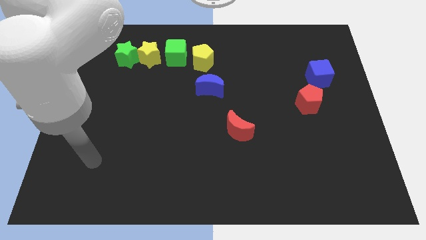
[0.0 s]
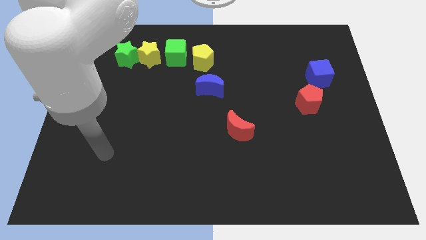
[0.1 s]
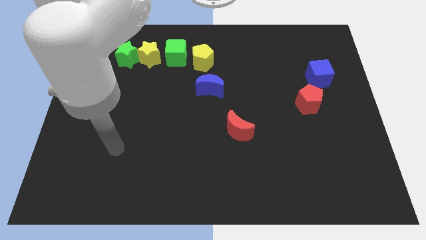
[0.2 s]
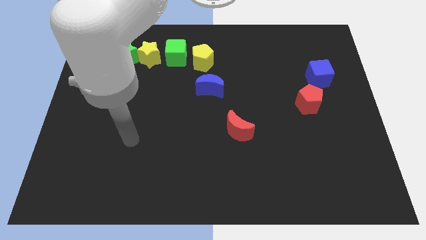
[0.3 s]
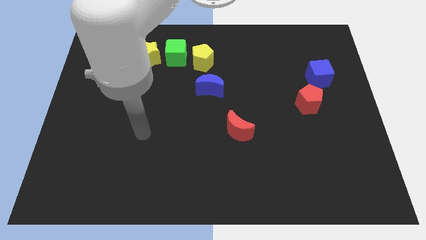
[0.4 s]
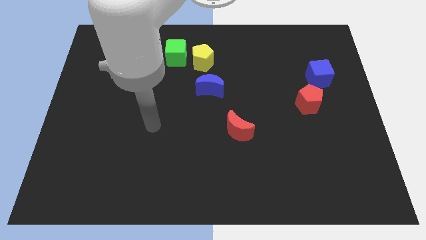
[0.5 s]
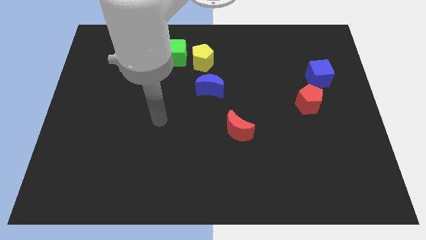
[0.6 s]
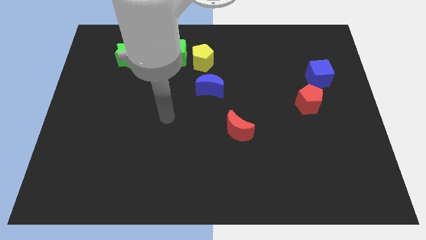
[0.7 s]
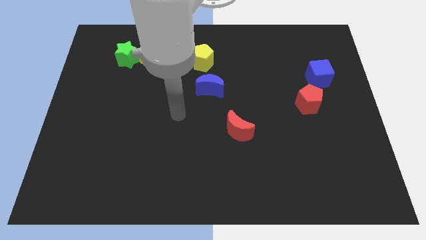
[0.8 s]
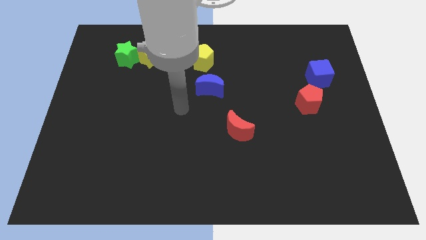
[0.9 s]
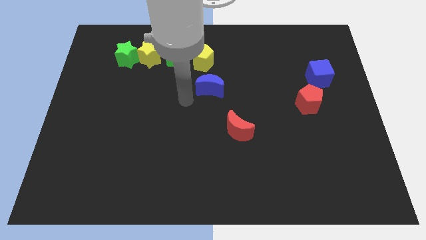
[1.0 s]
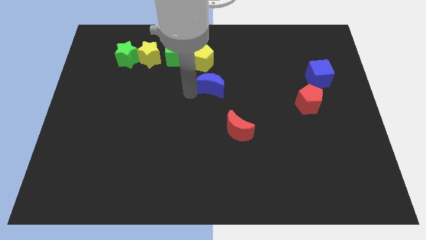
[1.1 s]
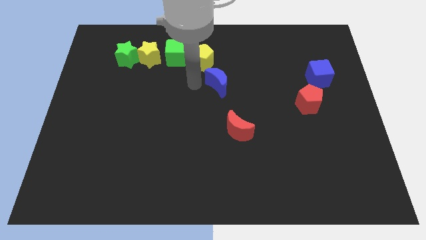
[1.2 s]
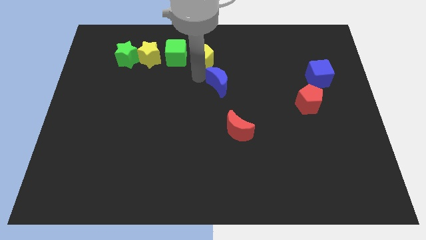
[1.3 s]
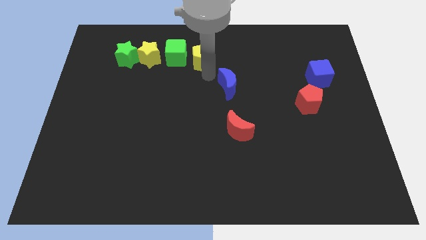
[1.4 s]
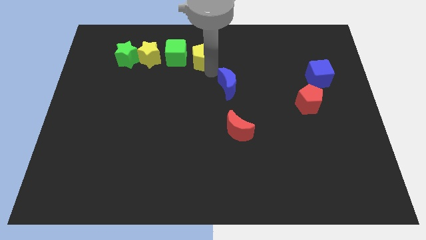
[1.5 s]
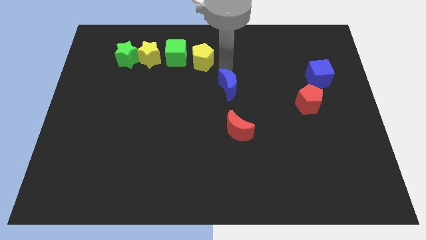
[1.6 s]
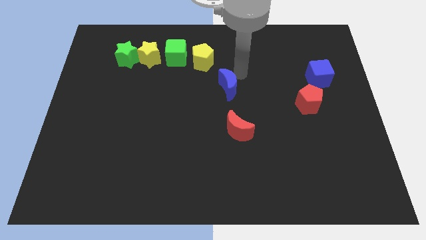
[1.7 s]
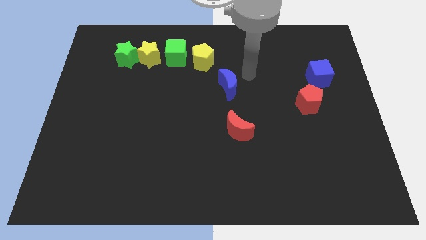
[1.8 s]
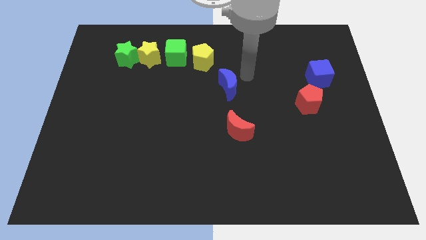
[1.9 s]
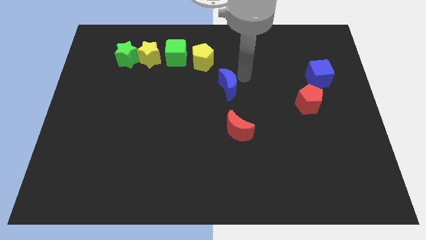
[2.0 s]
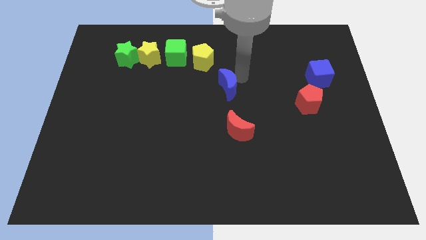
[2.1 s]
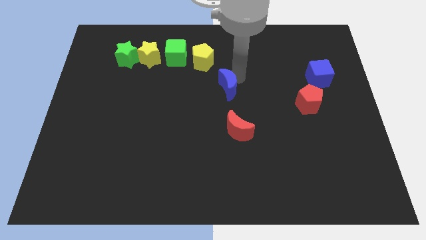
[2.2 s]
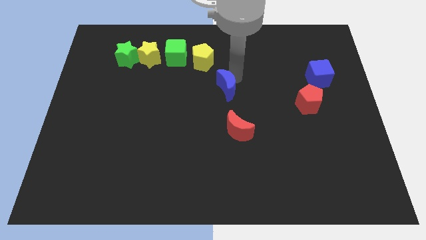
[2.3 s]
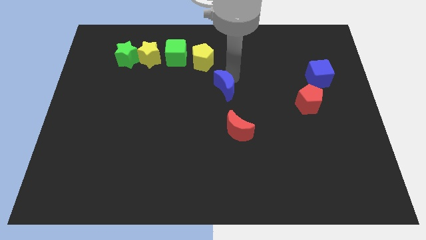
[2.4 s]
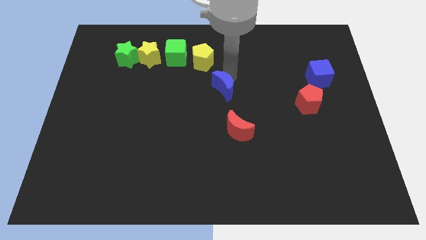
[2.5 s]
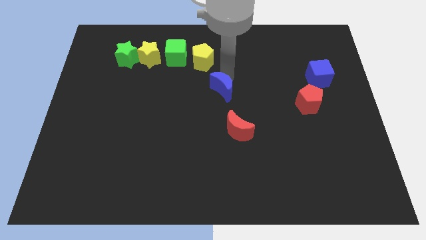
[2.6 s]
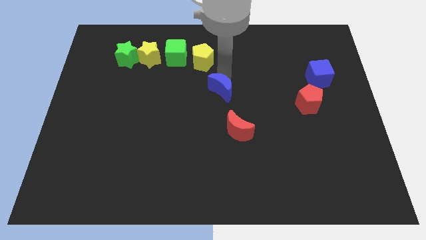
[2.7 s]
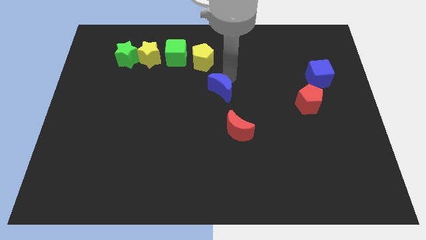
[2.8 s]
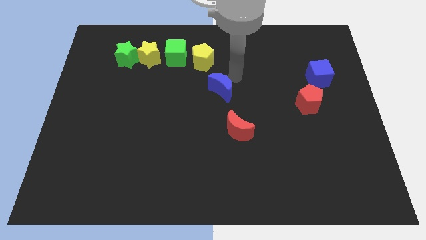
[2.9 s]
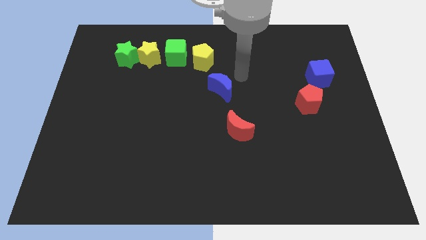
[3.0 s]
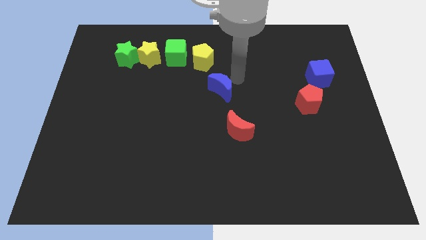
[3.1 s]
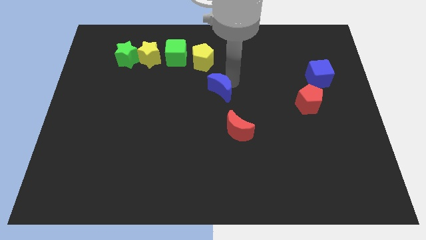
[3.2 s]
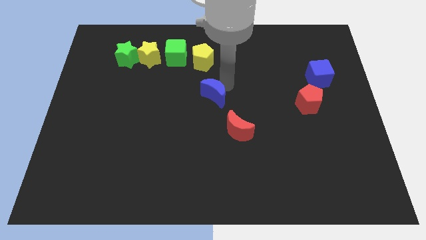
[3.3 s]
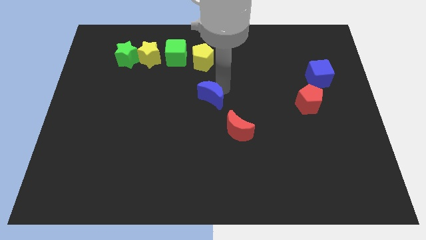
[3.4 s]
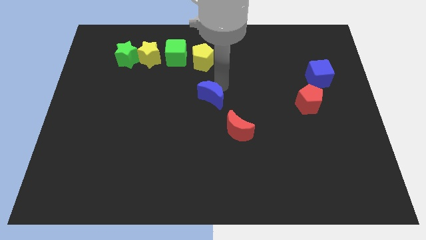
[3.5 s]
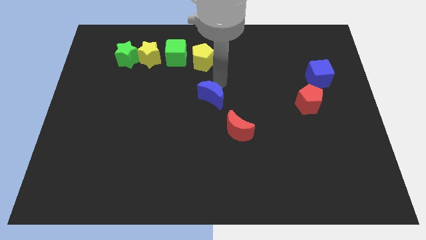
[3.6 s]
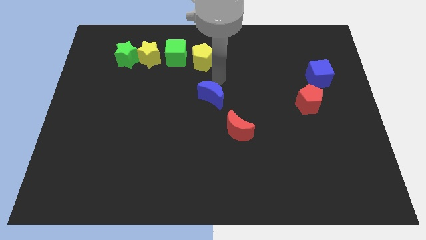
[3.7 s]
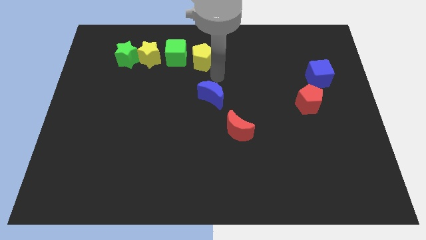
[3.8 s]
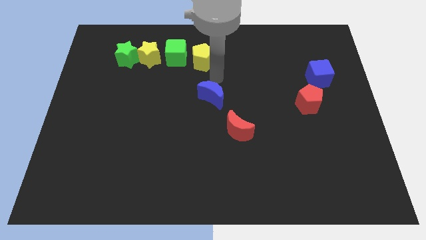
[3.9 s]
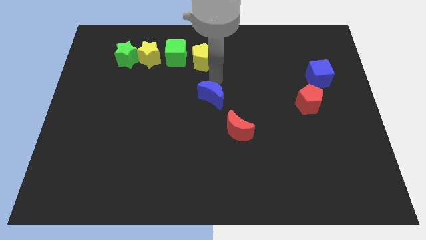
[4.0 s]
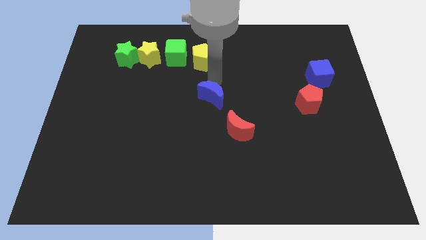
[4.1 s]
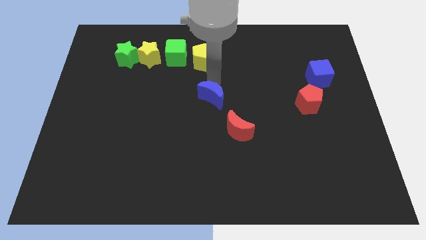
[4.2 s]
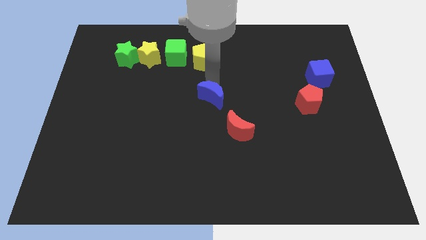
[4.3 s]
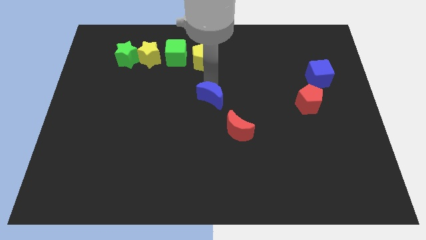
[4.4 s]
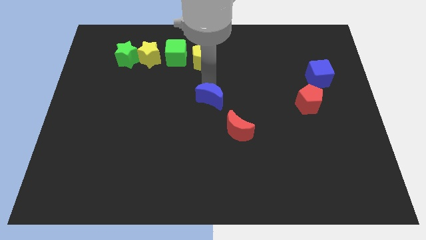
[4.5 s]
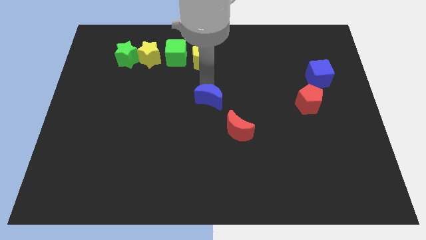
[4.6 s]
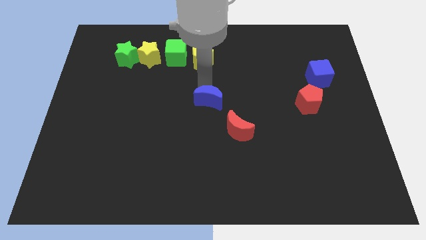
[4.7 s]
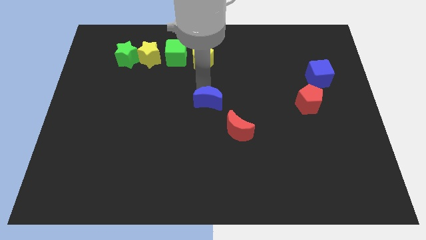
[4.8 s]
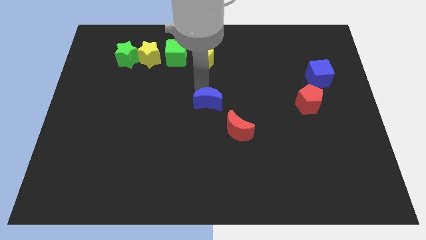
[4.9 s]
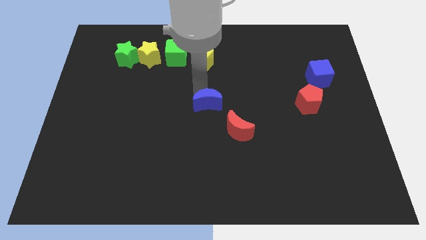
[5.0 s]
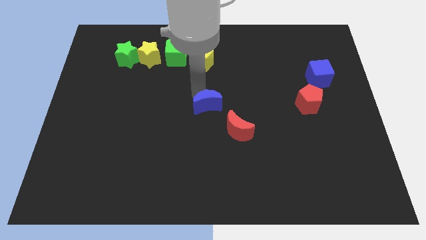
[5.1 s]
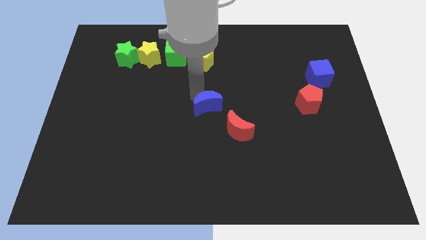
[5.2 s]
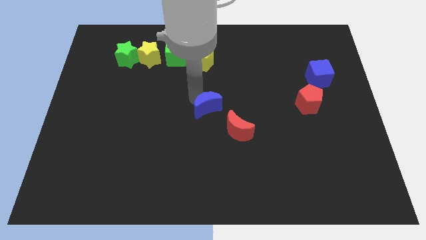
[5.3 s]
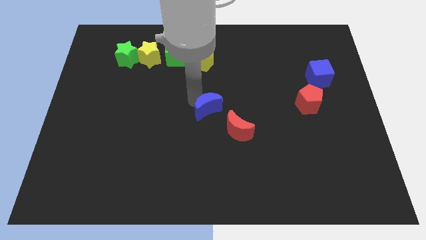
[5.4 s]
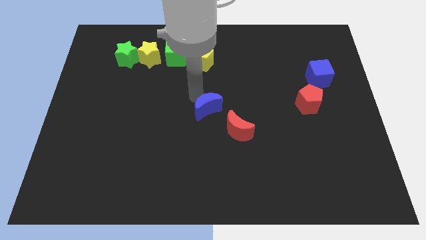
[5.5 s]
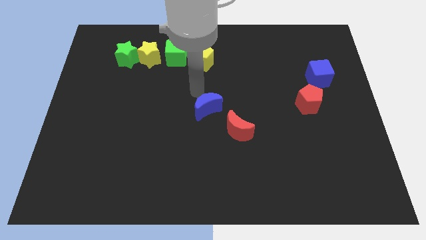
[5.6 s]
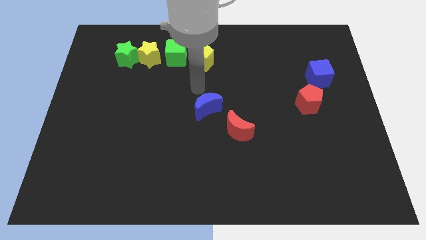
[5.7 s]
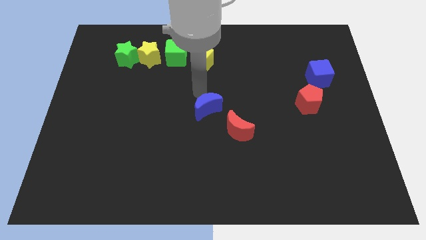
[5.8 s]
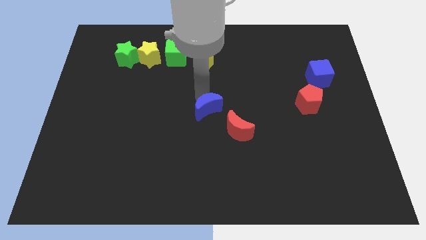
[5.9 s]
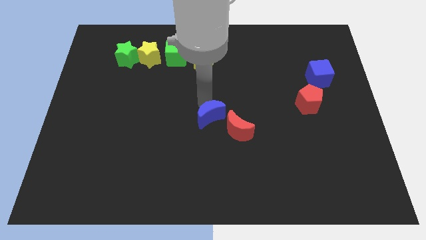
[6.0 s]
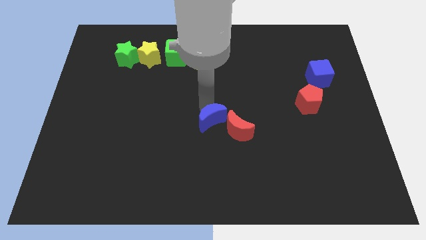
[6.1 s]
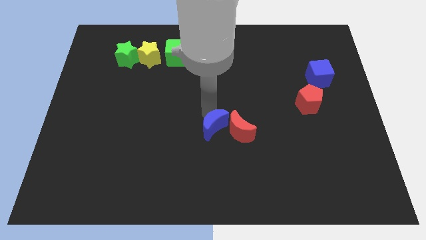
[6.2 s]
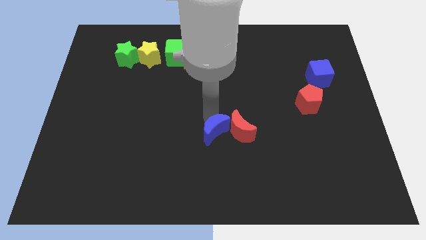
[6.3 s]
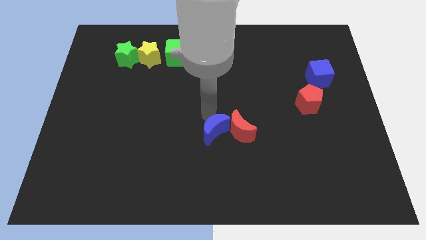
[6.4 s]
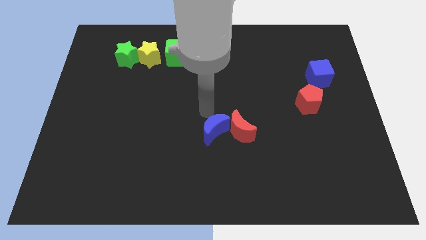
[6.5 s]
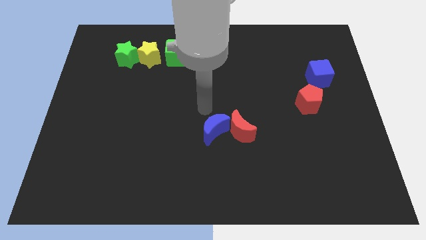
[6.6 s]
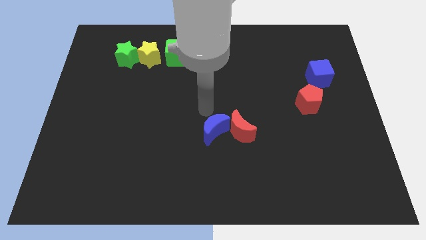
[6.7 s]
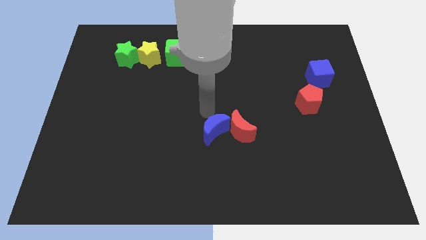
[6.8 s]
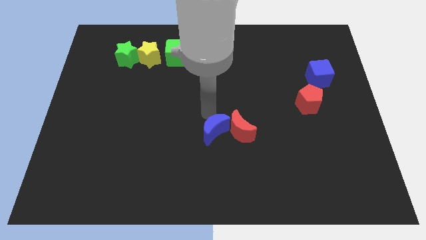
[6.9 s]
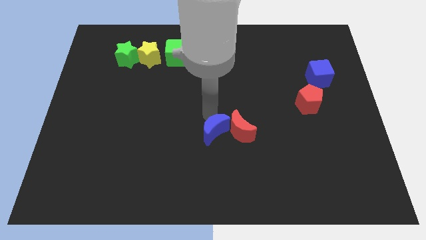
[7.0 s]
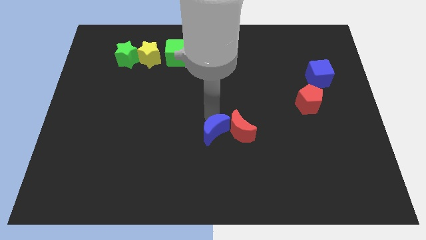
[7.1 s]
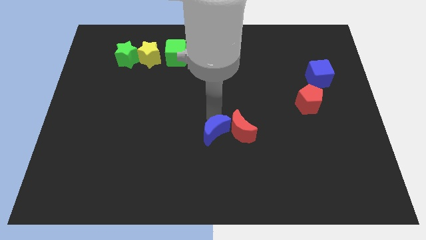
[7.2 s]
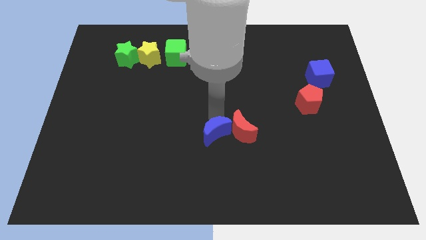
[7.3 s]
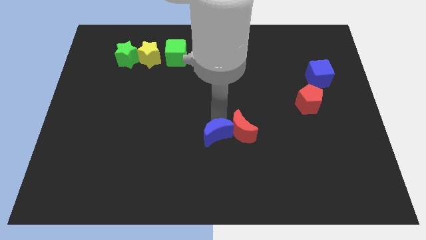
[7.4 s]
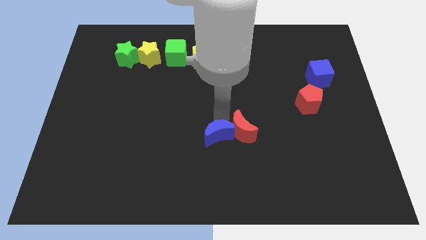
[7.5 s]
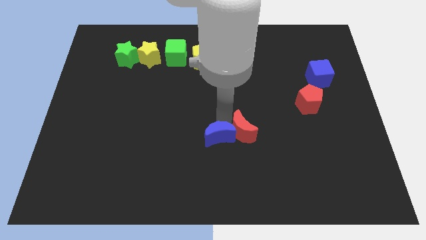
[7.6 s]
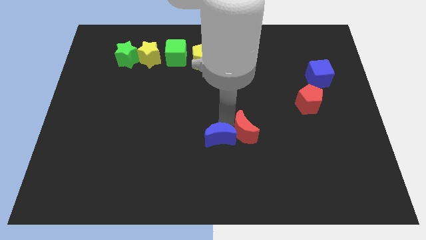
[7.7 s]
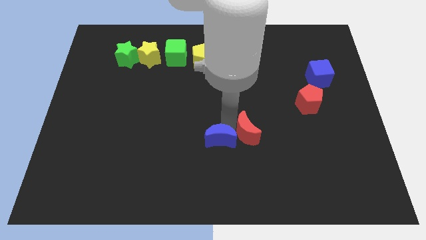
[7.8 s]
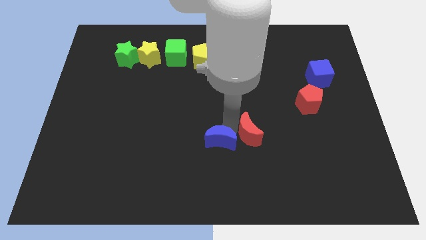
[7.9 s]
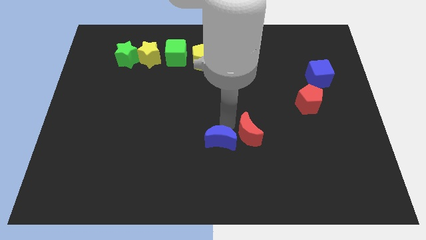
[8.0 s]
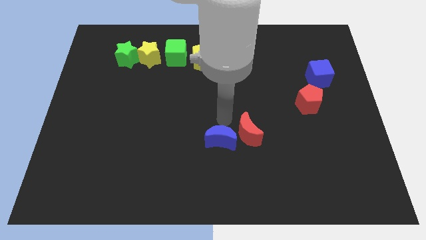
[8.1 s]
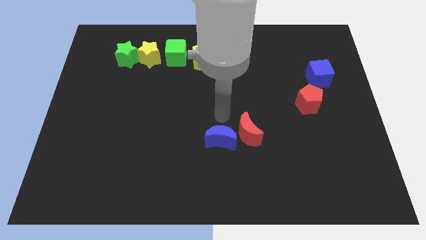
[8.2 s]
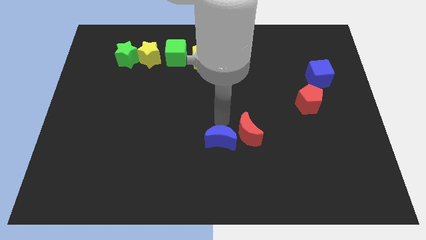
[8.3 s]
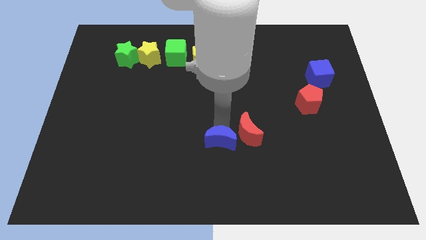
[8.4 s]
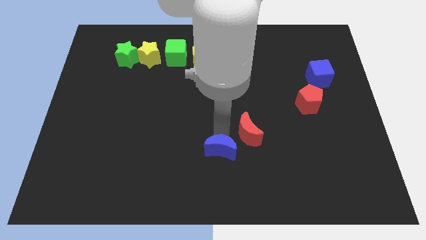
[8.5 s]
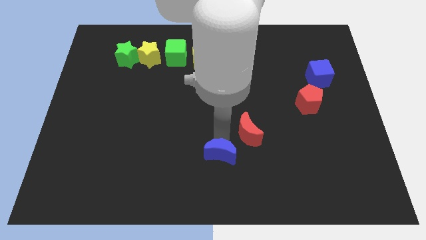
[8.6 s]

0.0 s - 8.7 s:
move the blue moon to the bottom
